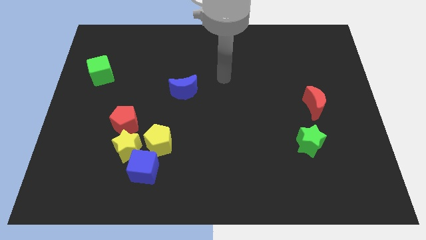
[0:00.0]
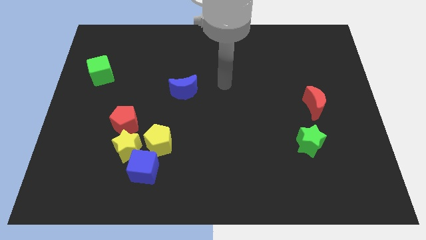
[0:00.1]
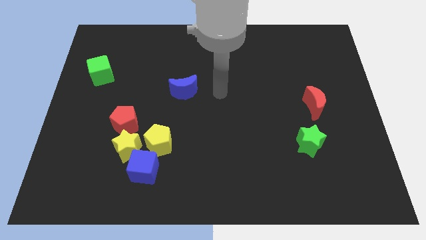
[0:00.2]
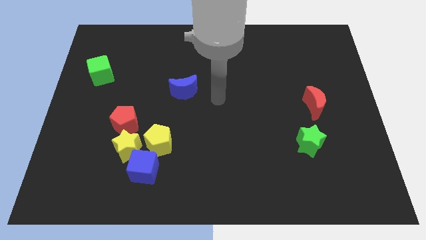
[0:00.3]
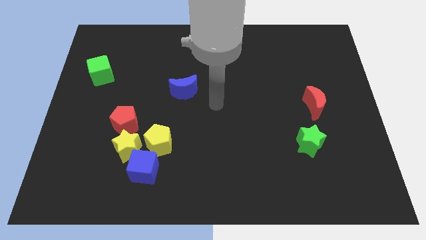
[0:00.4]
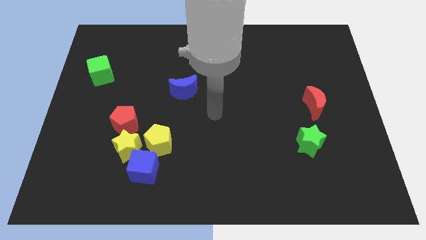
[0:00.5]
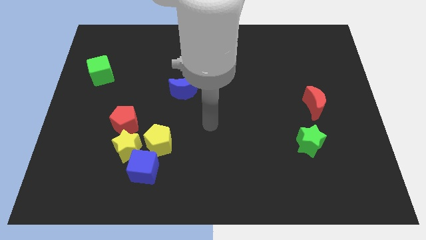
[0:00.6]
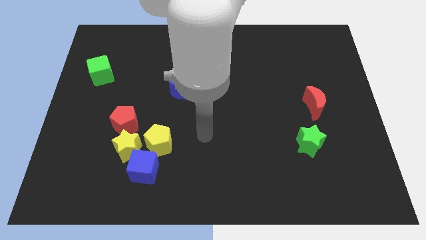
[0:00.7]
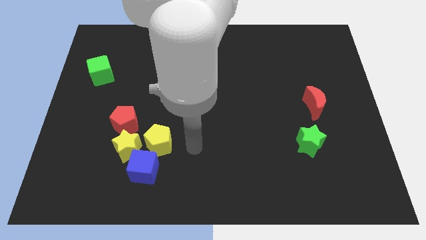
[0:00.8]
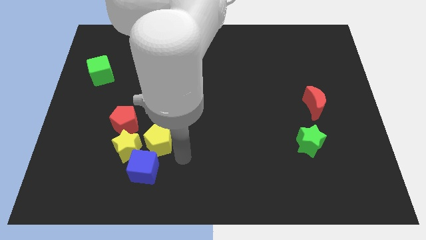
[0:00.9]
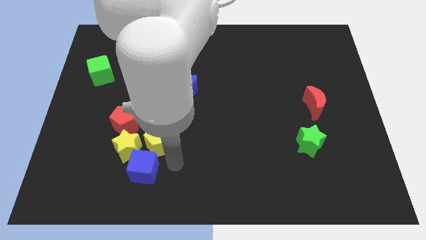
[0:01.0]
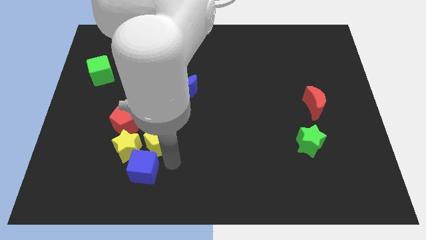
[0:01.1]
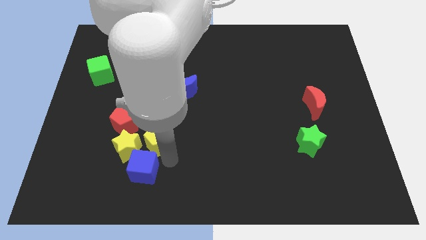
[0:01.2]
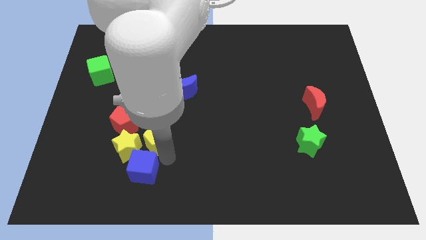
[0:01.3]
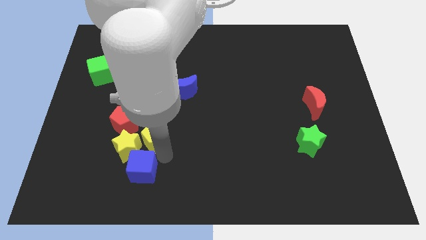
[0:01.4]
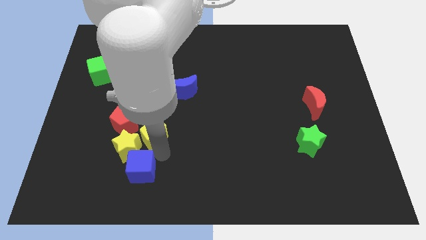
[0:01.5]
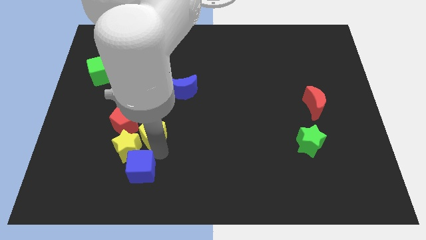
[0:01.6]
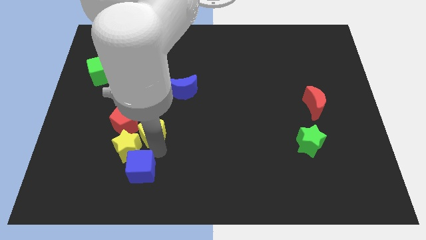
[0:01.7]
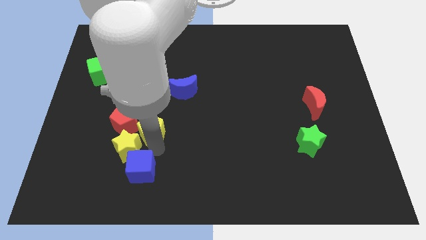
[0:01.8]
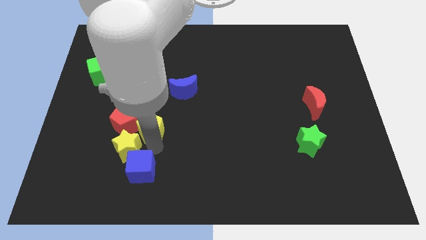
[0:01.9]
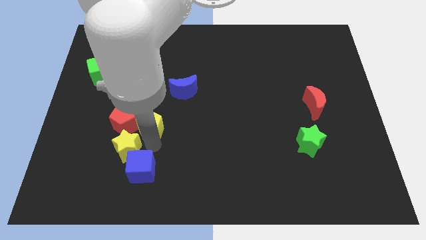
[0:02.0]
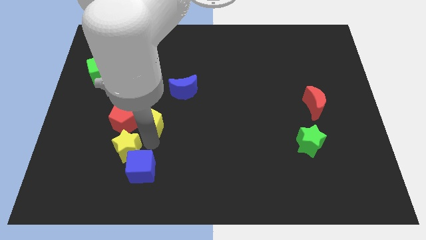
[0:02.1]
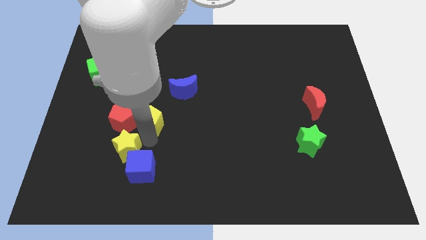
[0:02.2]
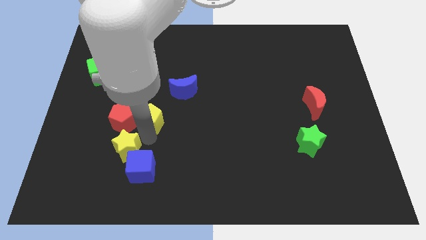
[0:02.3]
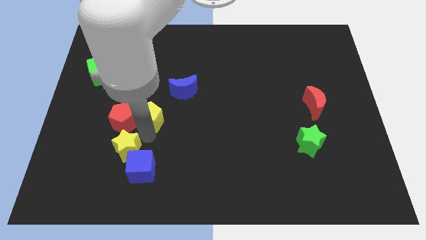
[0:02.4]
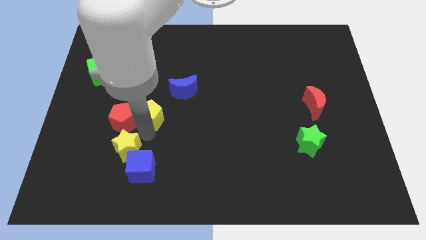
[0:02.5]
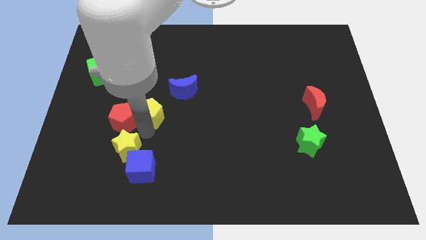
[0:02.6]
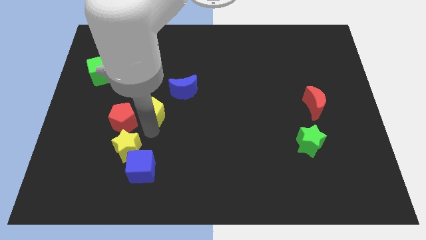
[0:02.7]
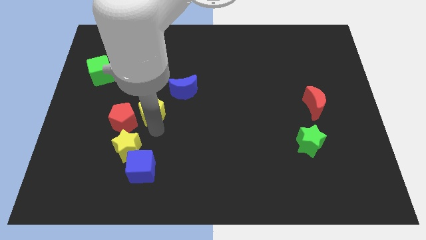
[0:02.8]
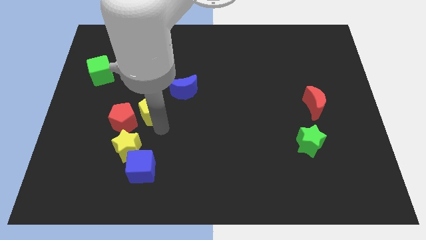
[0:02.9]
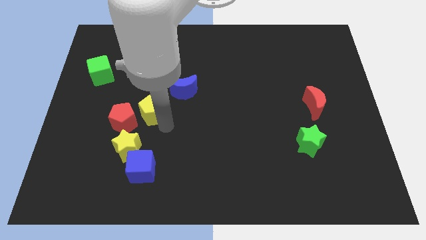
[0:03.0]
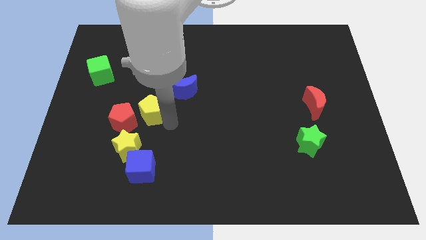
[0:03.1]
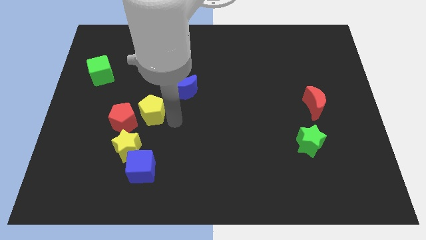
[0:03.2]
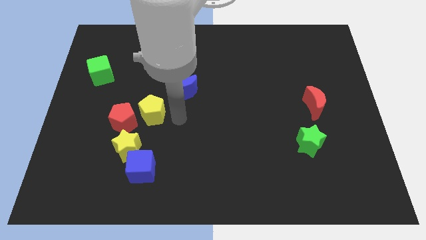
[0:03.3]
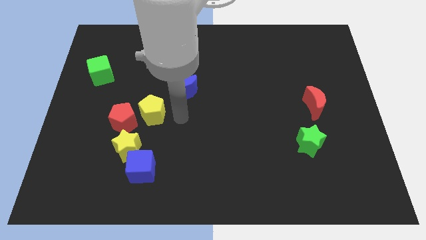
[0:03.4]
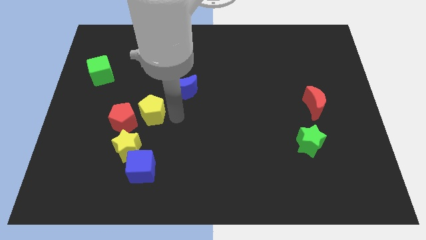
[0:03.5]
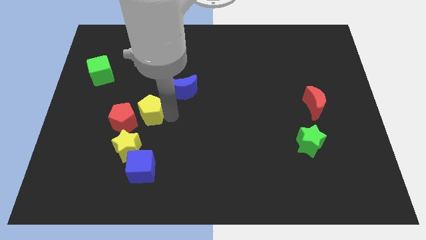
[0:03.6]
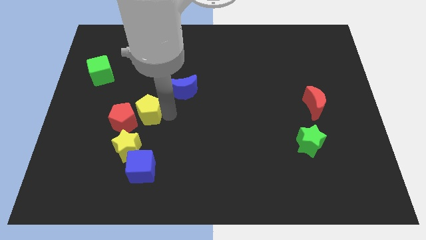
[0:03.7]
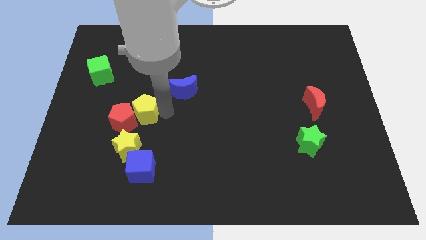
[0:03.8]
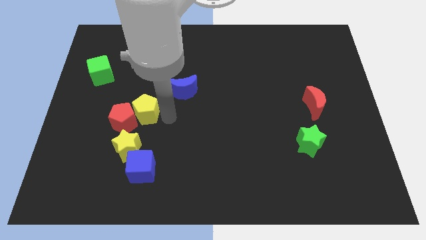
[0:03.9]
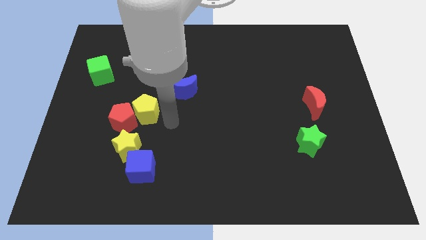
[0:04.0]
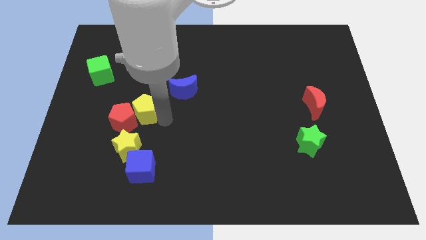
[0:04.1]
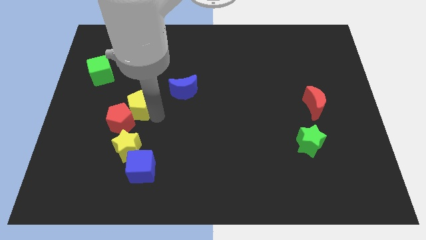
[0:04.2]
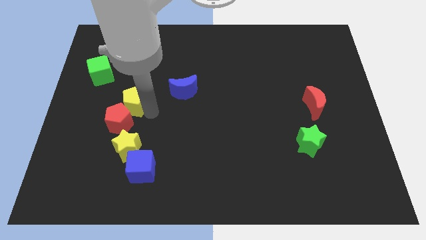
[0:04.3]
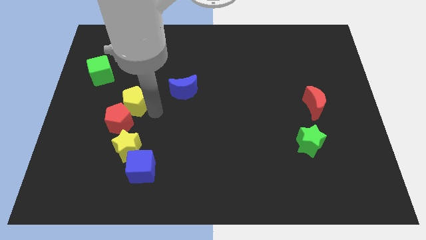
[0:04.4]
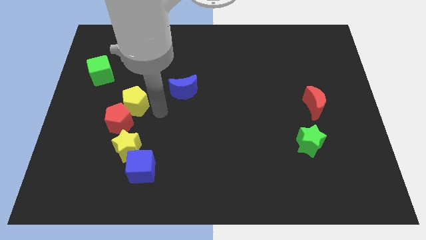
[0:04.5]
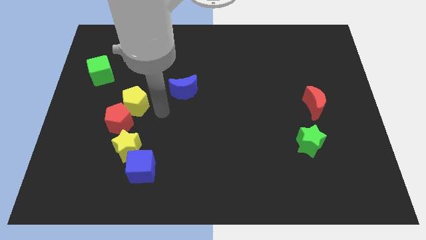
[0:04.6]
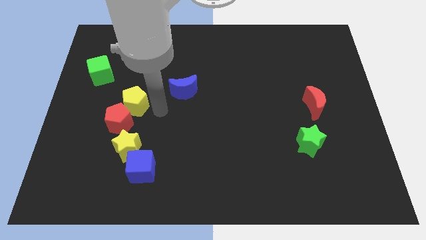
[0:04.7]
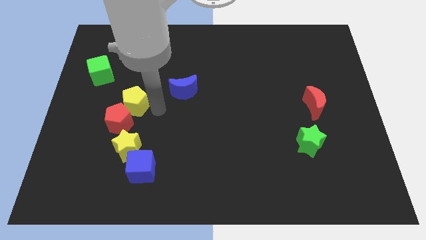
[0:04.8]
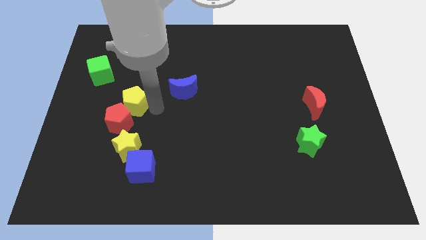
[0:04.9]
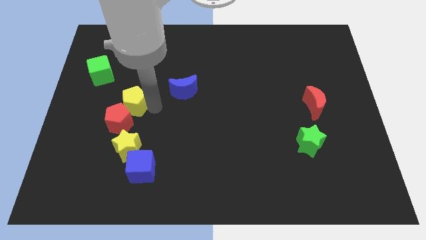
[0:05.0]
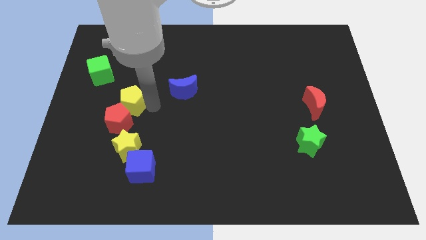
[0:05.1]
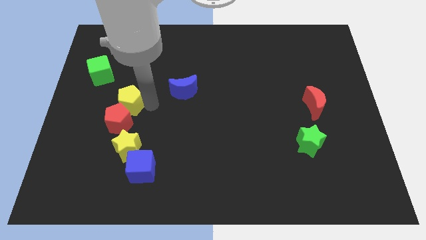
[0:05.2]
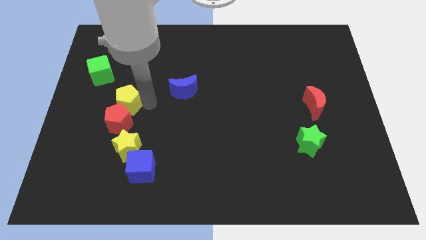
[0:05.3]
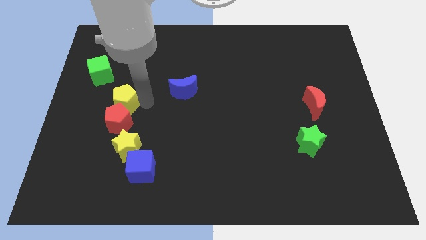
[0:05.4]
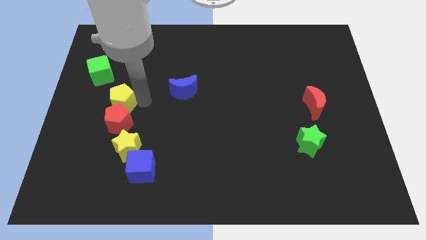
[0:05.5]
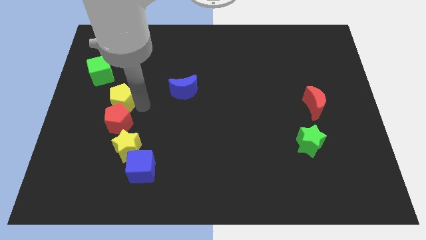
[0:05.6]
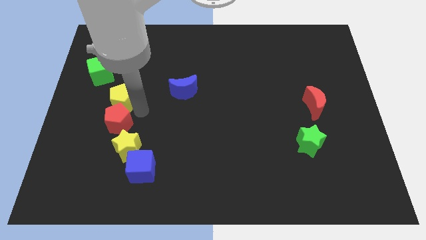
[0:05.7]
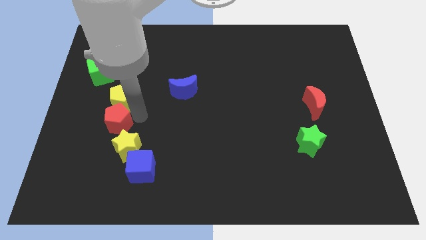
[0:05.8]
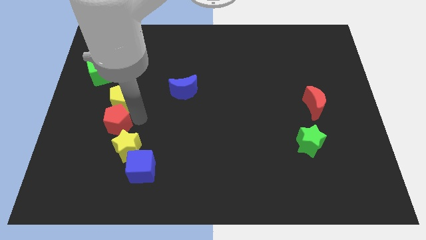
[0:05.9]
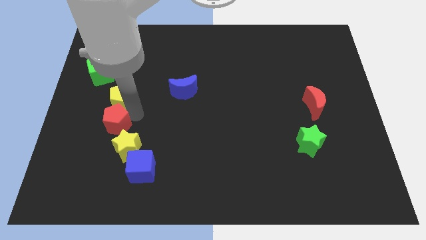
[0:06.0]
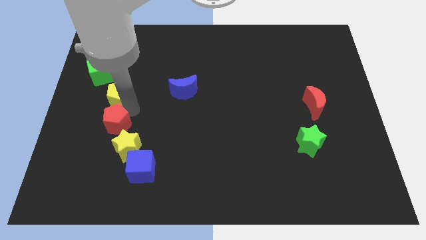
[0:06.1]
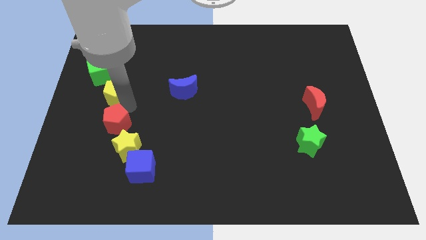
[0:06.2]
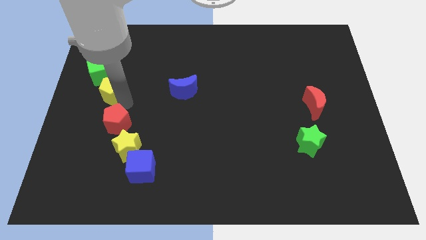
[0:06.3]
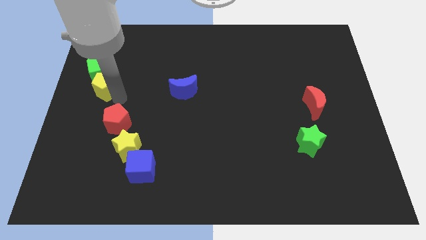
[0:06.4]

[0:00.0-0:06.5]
move the yellow pentagon close to the green cube

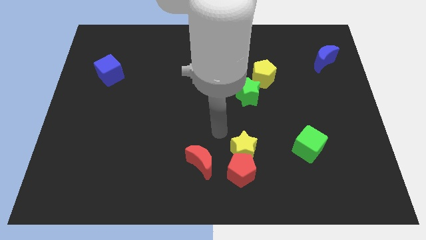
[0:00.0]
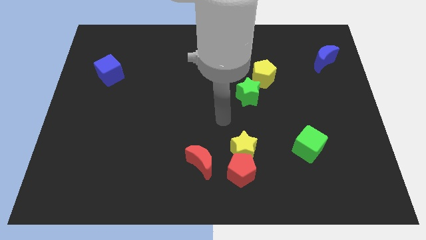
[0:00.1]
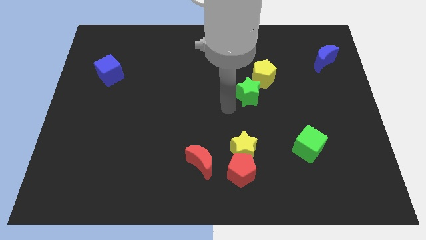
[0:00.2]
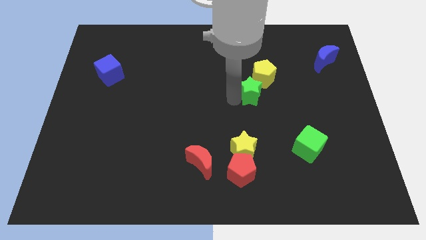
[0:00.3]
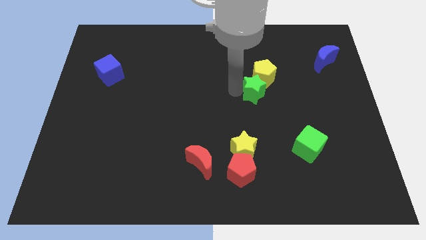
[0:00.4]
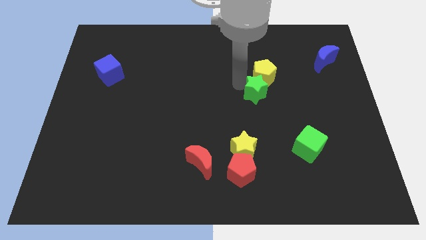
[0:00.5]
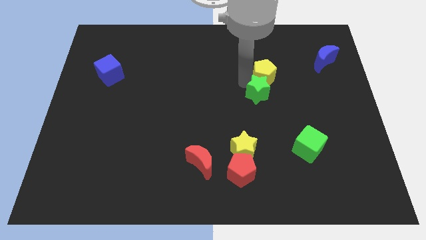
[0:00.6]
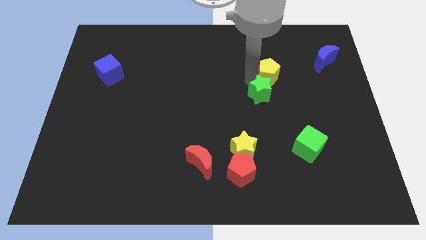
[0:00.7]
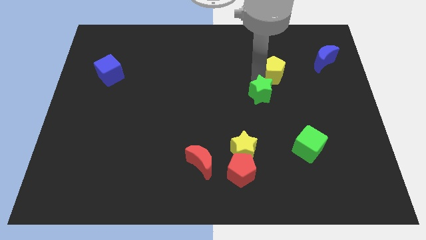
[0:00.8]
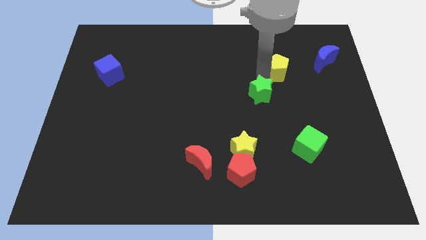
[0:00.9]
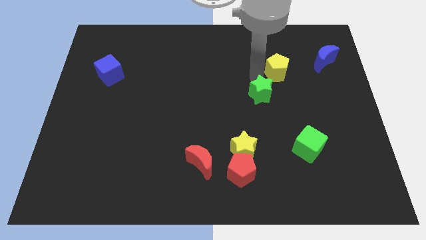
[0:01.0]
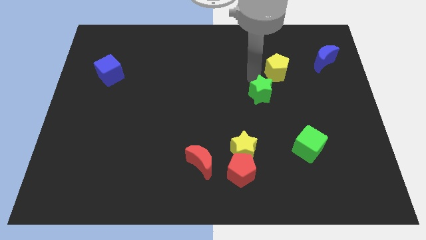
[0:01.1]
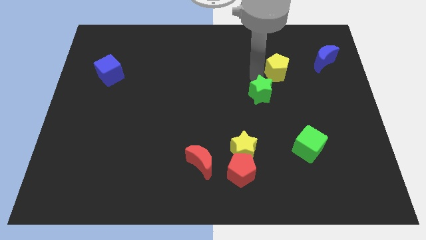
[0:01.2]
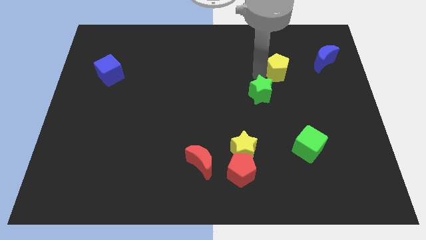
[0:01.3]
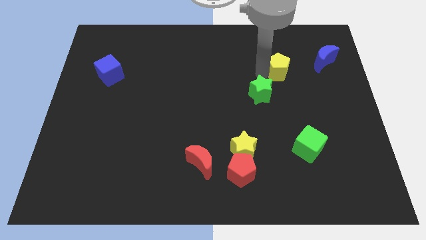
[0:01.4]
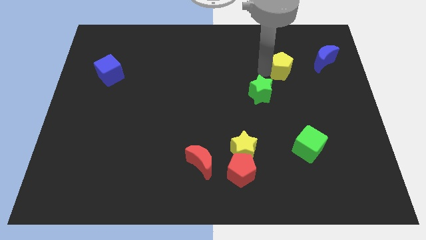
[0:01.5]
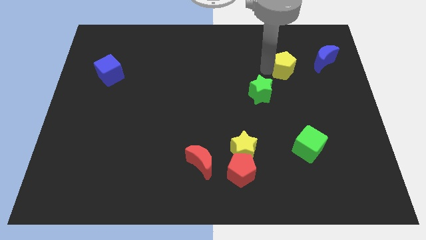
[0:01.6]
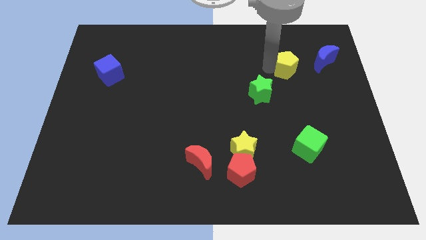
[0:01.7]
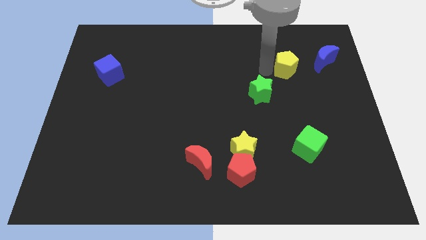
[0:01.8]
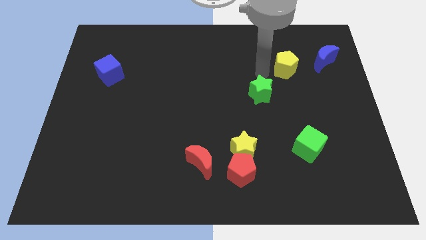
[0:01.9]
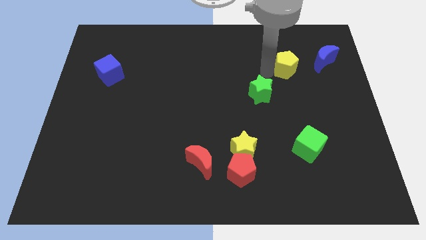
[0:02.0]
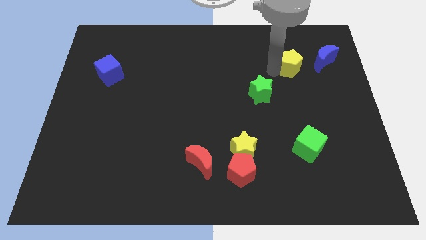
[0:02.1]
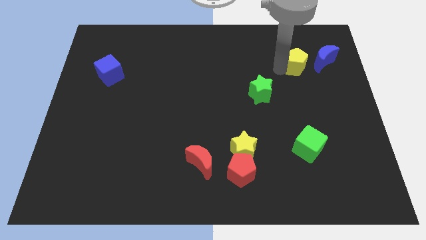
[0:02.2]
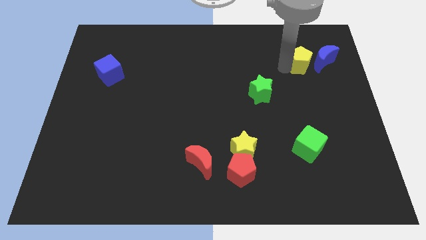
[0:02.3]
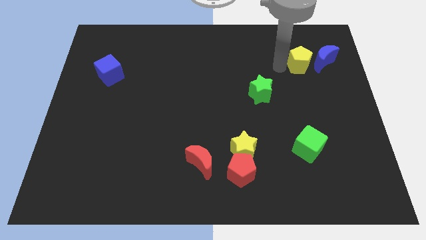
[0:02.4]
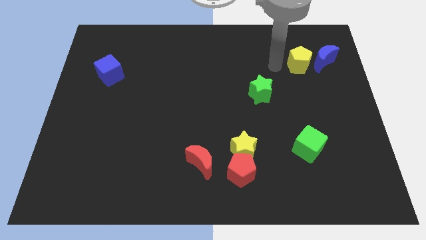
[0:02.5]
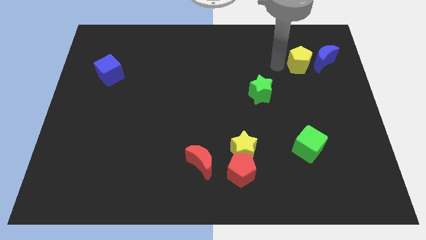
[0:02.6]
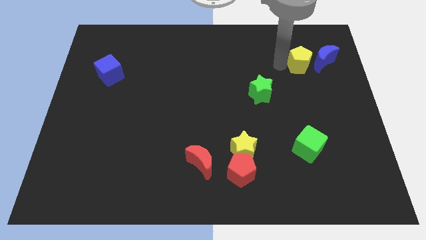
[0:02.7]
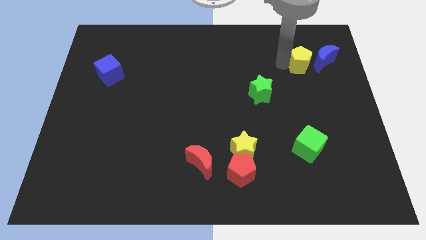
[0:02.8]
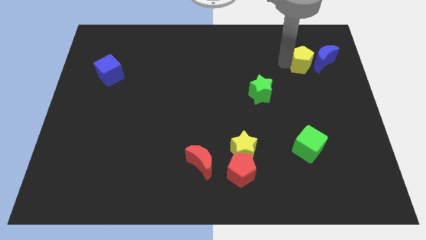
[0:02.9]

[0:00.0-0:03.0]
slide the yellow pentagon towards the blue moon
